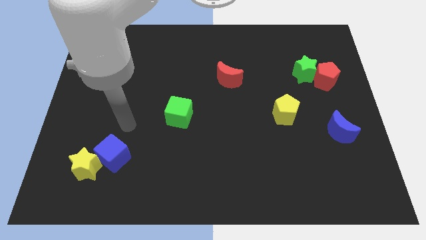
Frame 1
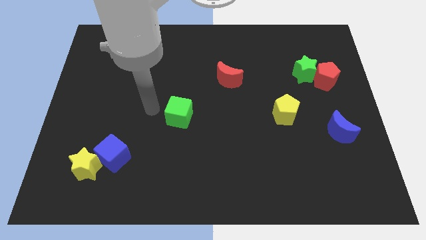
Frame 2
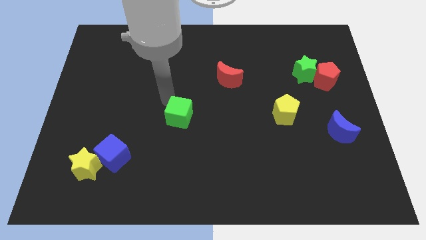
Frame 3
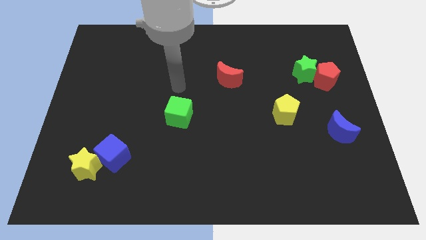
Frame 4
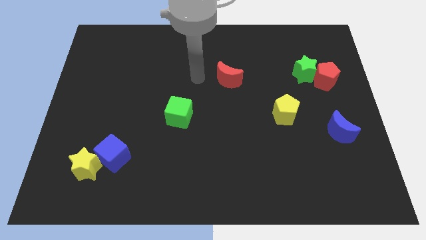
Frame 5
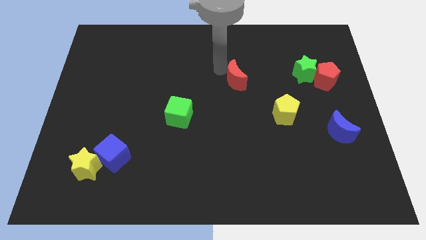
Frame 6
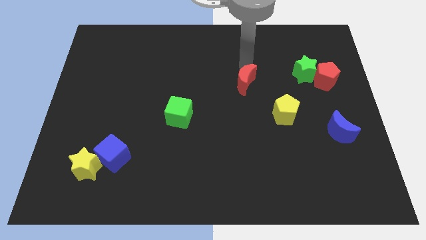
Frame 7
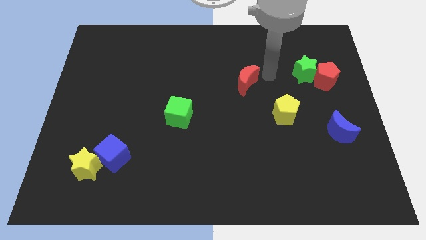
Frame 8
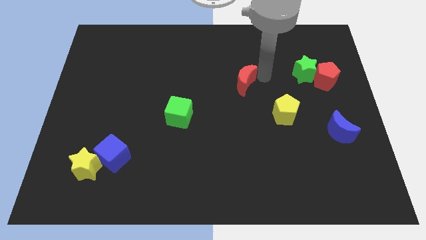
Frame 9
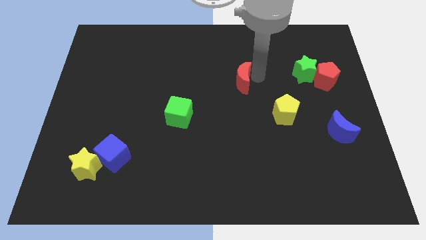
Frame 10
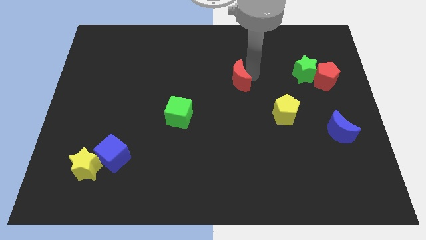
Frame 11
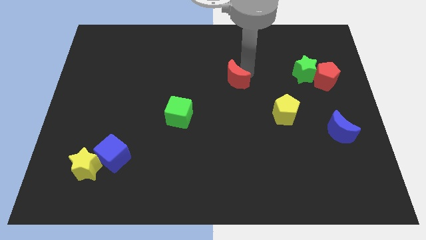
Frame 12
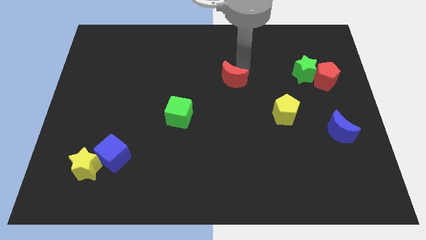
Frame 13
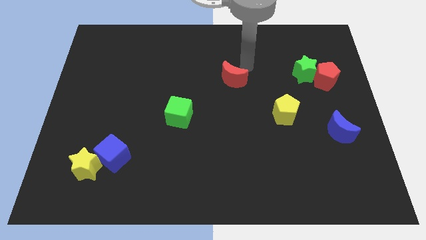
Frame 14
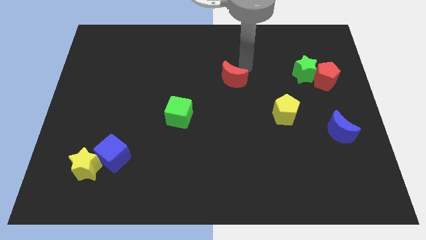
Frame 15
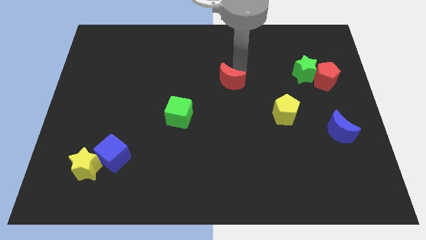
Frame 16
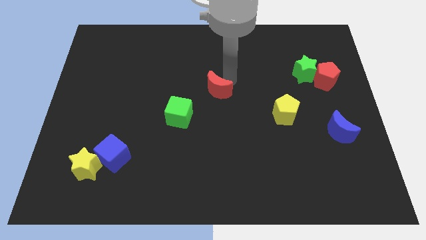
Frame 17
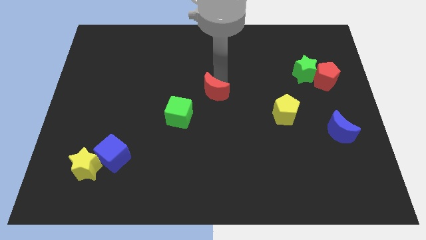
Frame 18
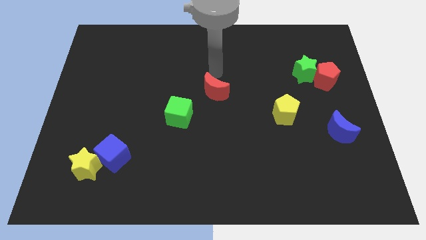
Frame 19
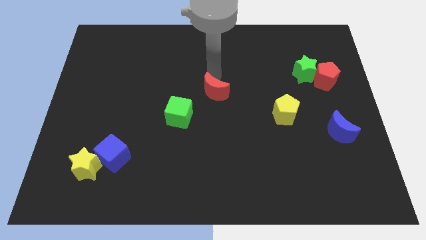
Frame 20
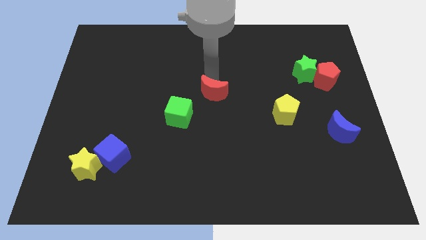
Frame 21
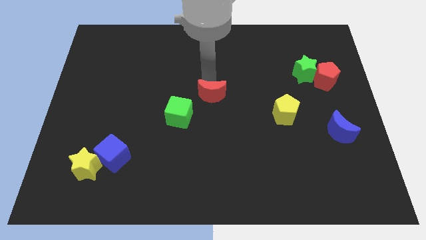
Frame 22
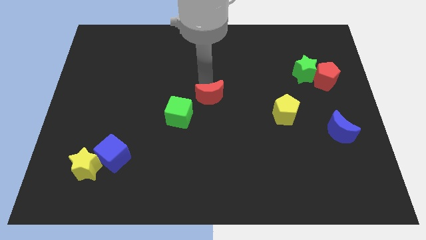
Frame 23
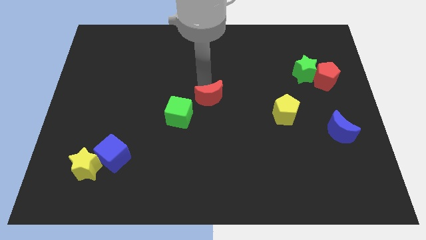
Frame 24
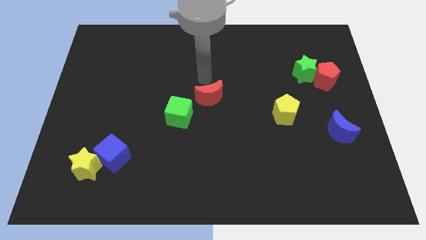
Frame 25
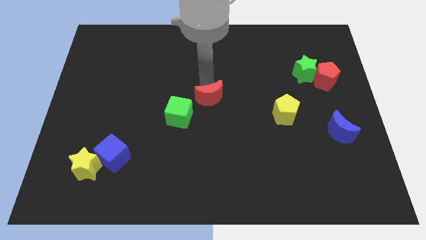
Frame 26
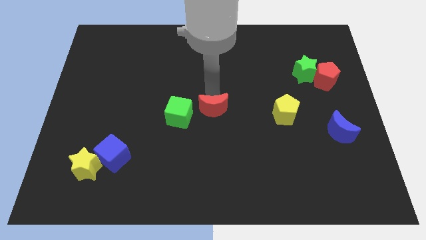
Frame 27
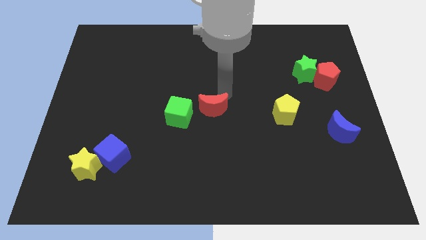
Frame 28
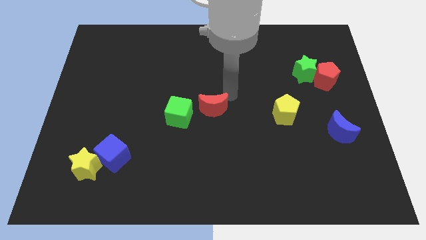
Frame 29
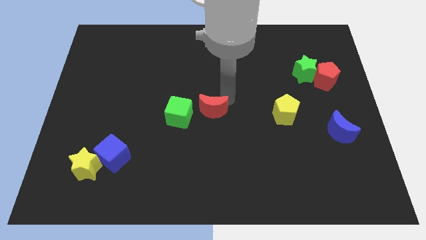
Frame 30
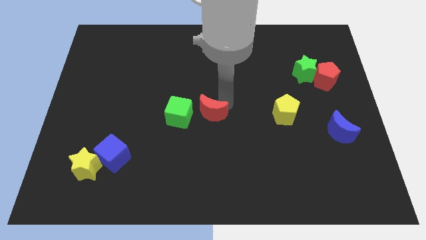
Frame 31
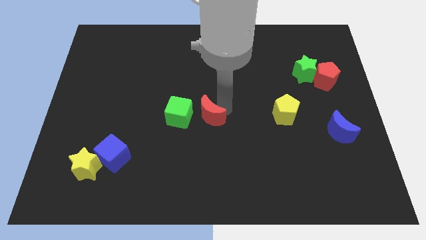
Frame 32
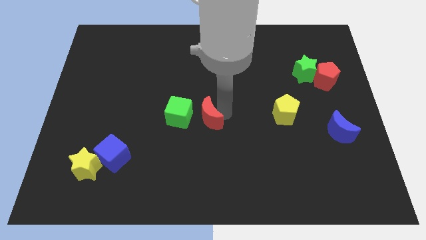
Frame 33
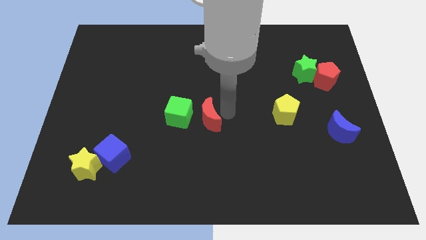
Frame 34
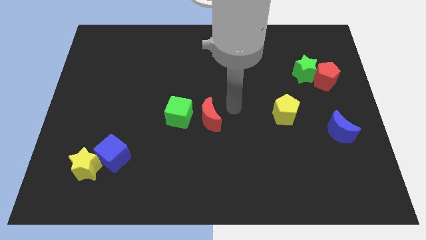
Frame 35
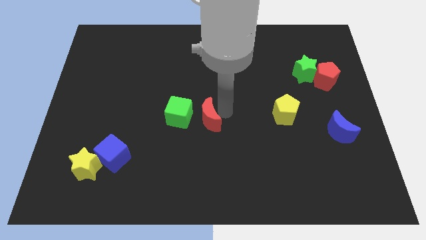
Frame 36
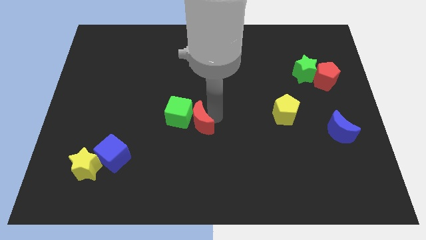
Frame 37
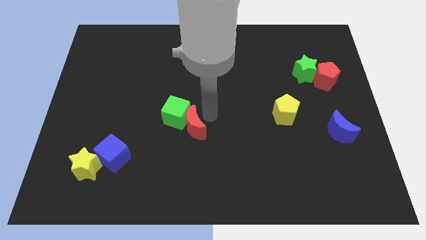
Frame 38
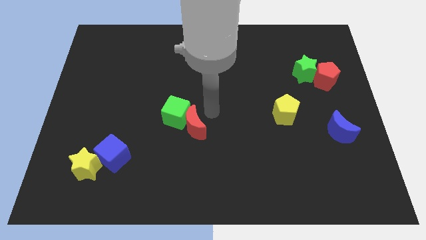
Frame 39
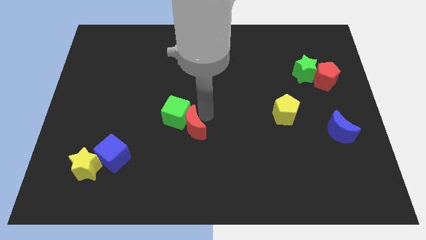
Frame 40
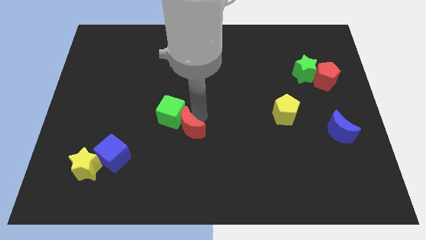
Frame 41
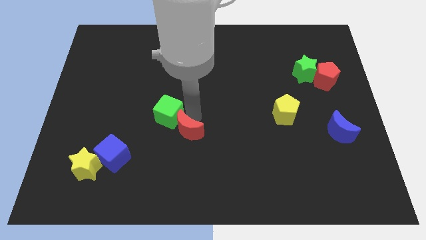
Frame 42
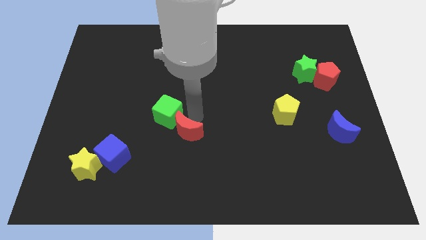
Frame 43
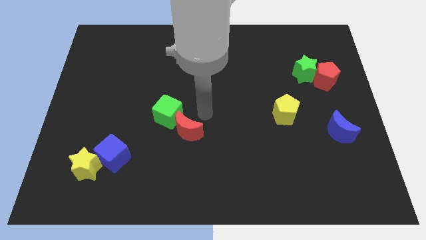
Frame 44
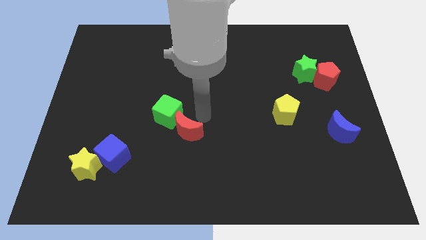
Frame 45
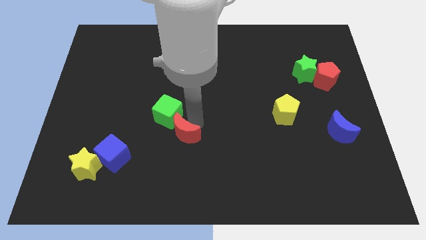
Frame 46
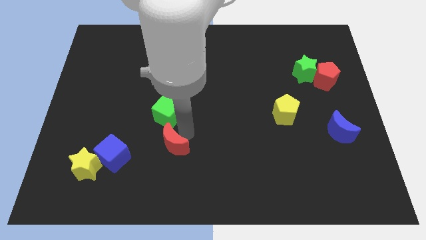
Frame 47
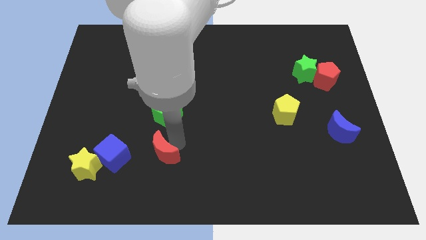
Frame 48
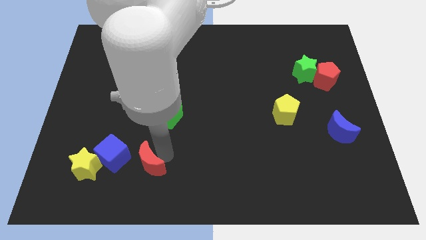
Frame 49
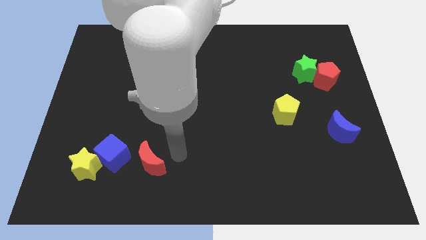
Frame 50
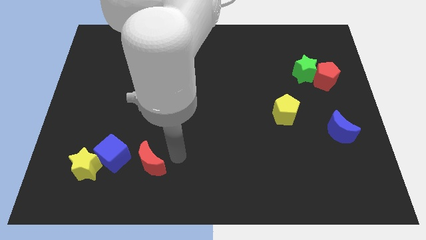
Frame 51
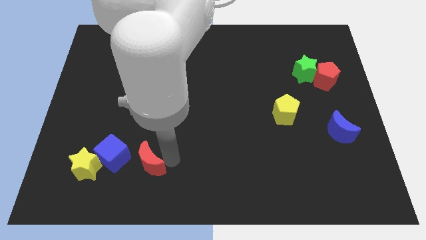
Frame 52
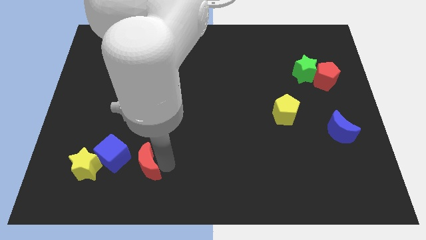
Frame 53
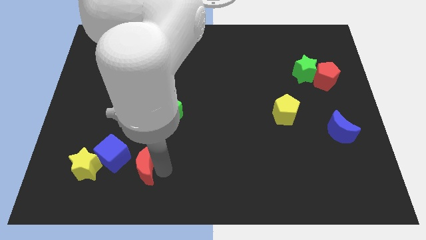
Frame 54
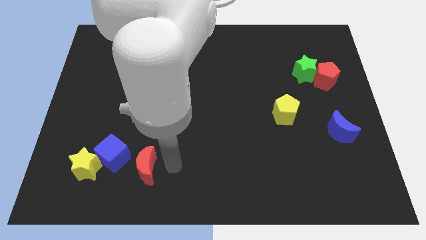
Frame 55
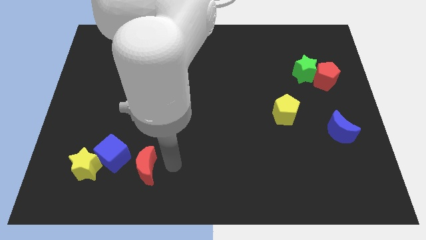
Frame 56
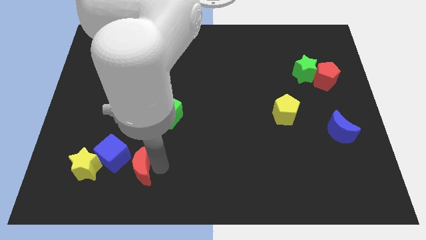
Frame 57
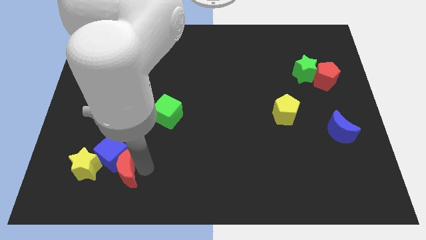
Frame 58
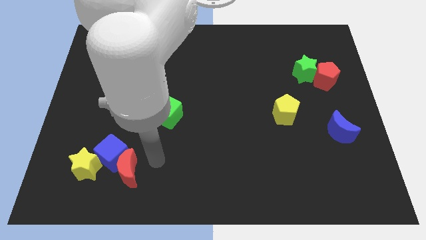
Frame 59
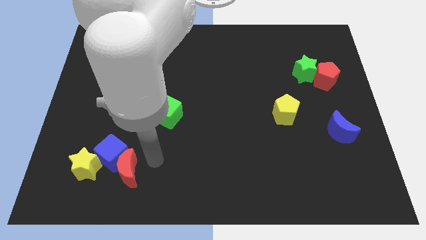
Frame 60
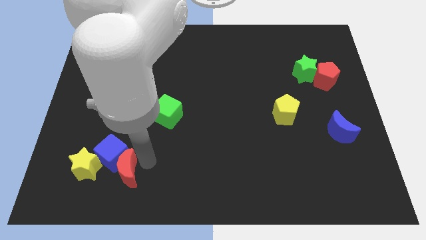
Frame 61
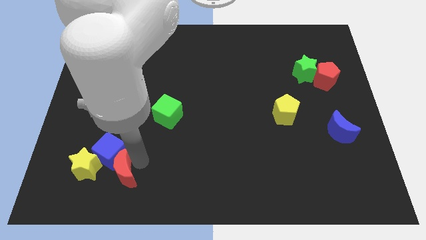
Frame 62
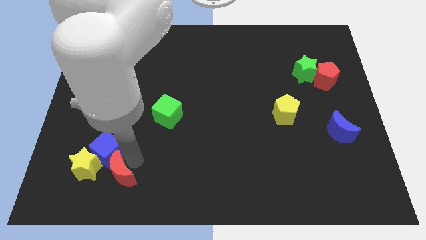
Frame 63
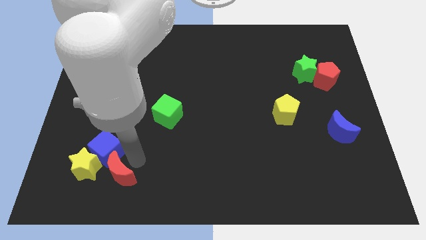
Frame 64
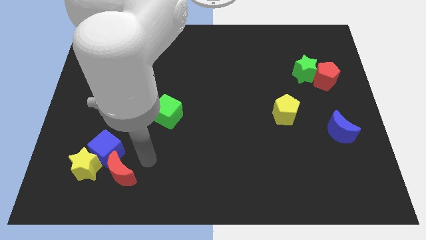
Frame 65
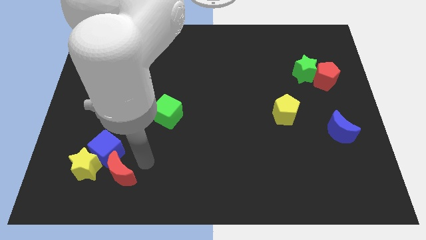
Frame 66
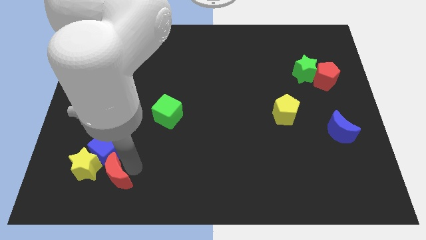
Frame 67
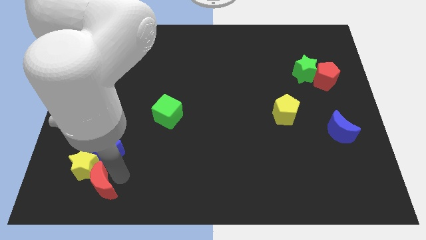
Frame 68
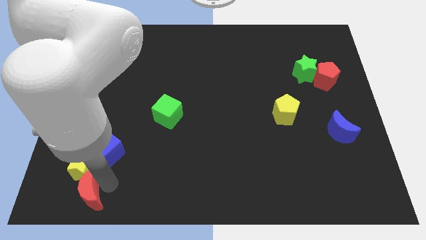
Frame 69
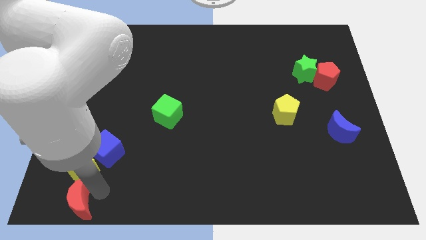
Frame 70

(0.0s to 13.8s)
put the red moon to the bottom left corner
